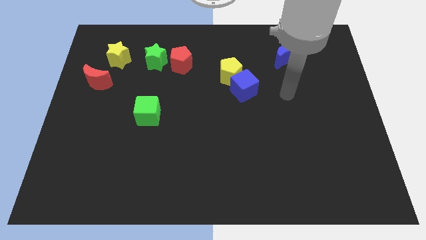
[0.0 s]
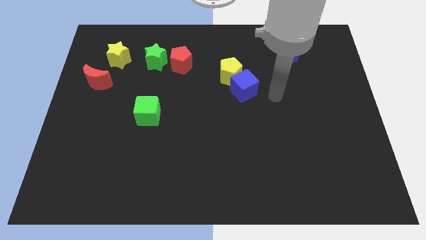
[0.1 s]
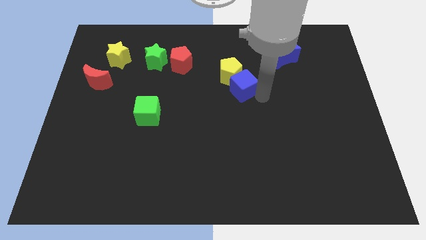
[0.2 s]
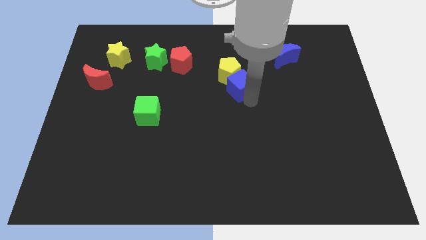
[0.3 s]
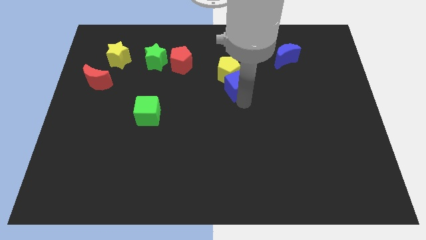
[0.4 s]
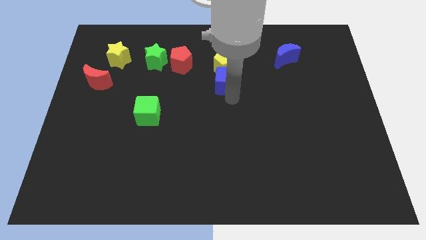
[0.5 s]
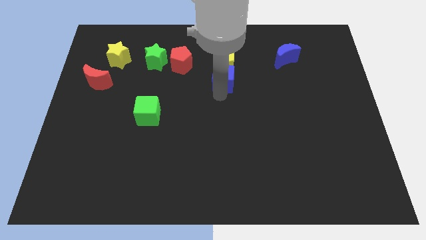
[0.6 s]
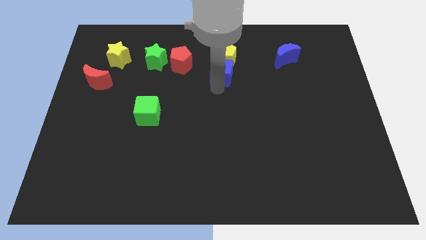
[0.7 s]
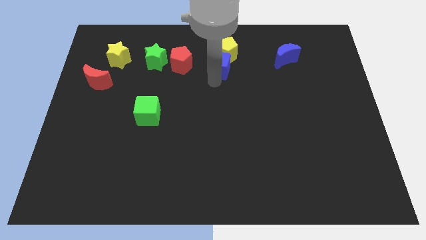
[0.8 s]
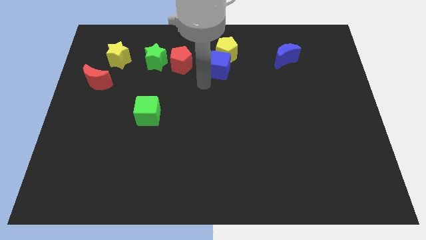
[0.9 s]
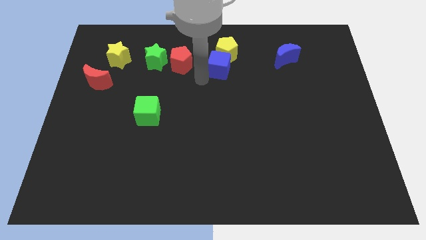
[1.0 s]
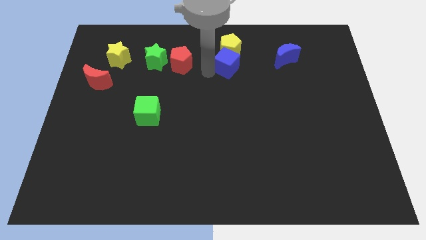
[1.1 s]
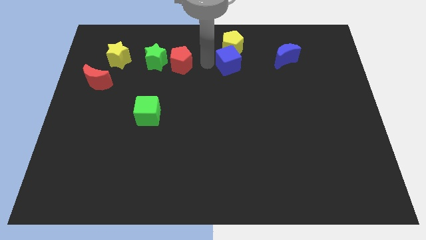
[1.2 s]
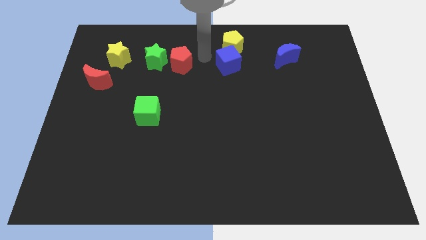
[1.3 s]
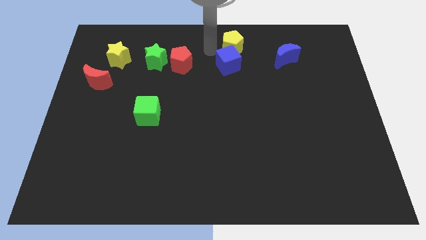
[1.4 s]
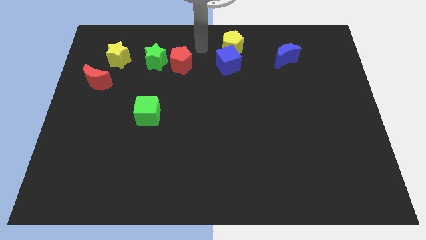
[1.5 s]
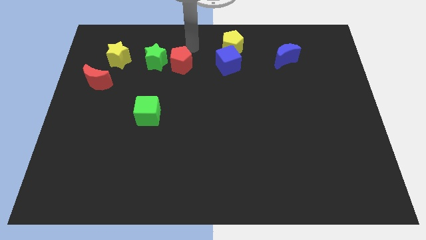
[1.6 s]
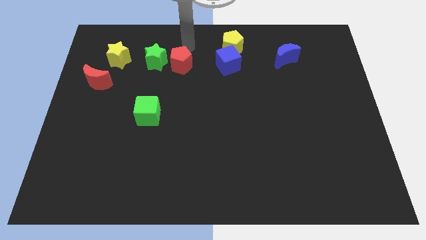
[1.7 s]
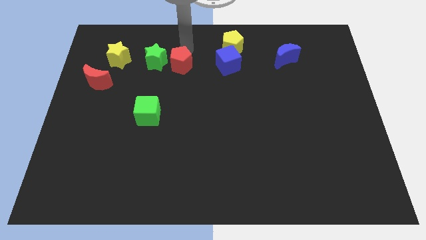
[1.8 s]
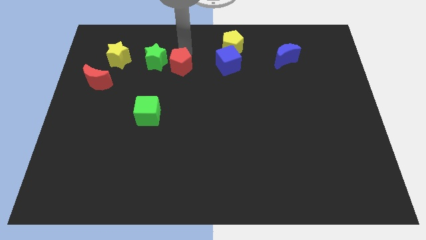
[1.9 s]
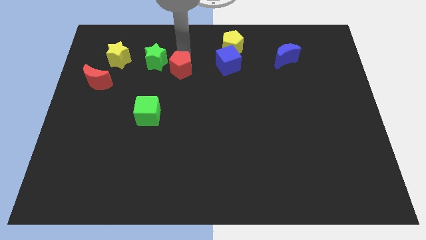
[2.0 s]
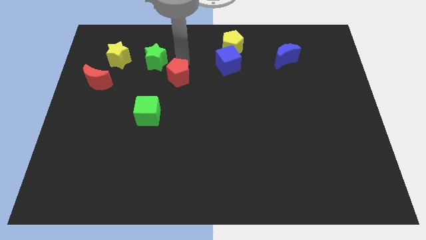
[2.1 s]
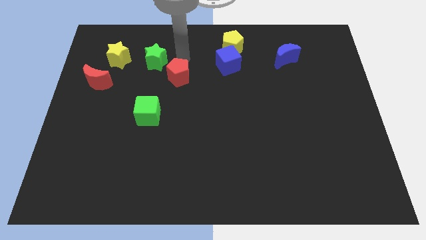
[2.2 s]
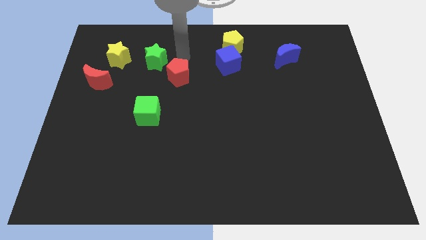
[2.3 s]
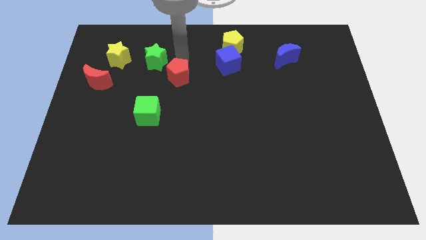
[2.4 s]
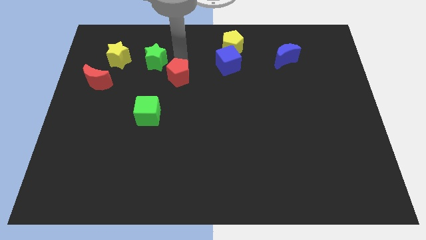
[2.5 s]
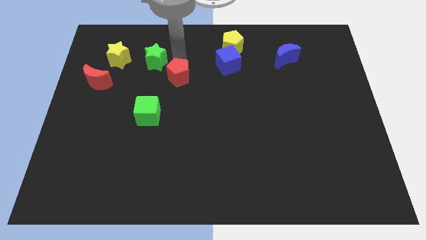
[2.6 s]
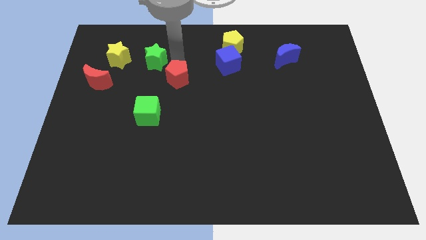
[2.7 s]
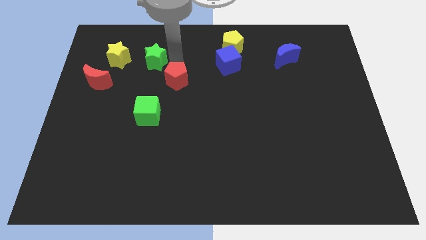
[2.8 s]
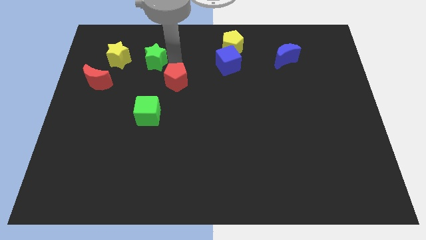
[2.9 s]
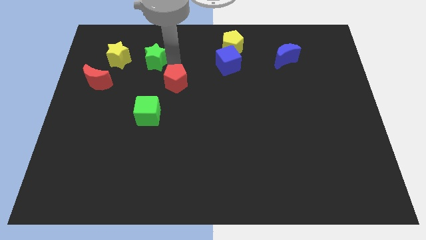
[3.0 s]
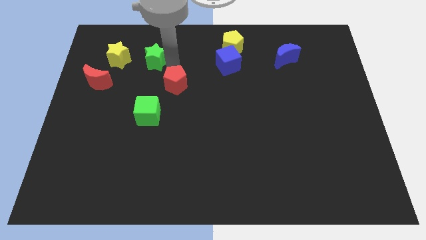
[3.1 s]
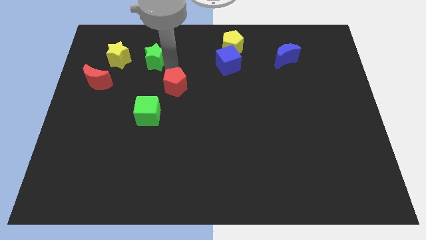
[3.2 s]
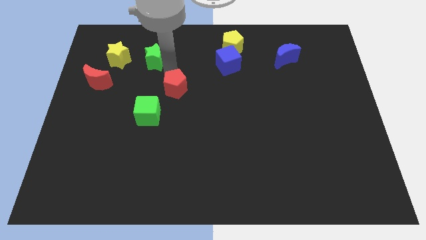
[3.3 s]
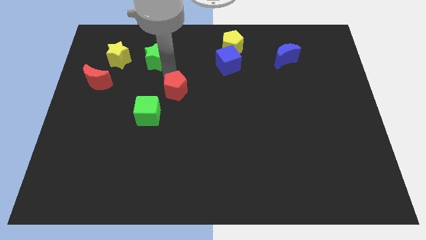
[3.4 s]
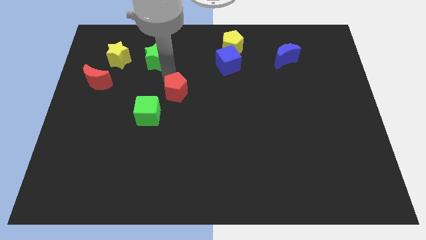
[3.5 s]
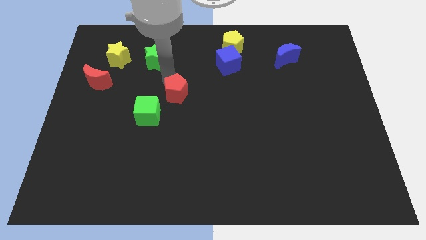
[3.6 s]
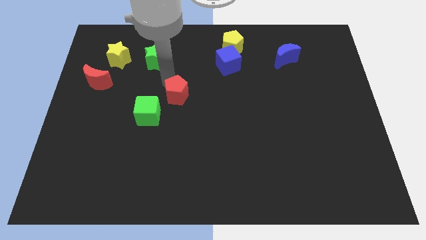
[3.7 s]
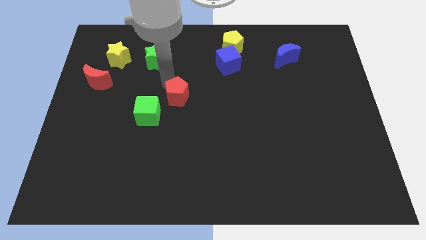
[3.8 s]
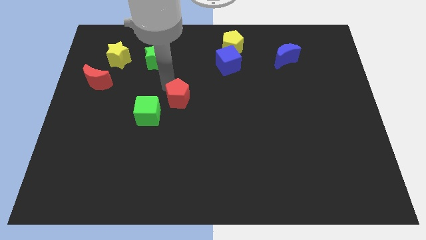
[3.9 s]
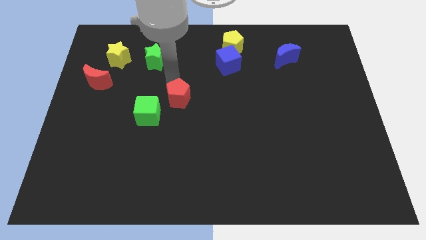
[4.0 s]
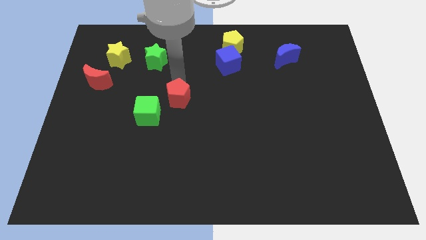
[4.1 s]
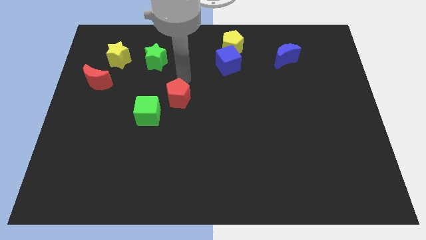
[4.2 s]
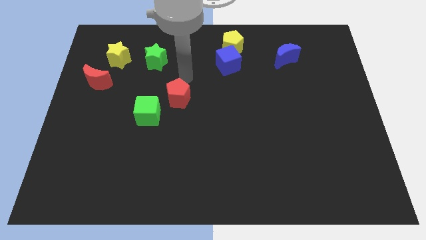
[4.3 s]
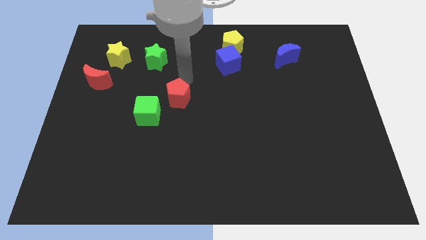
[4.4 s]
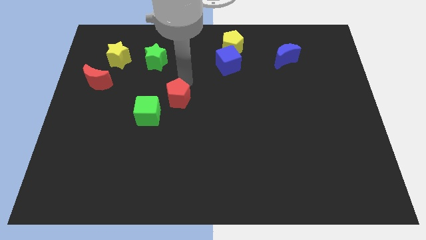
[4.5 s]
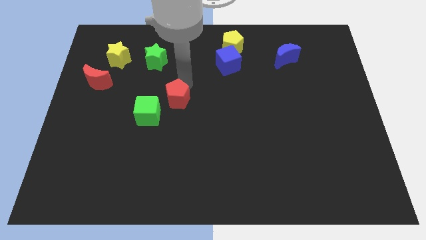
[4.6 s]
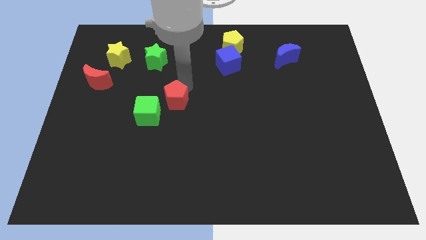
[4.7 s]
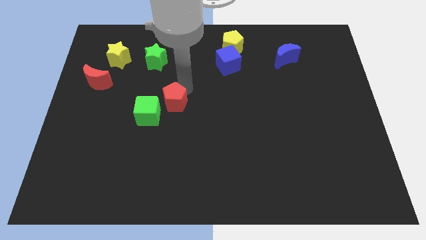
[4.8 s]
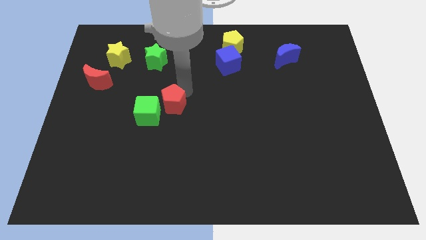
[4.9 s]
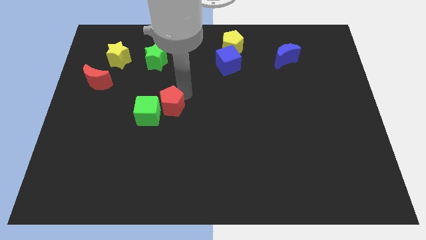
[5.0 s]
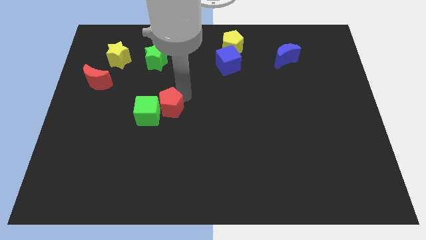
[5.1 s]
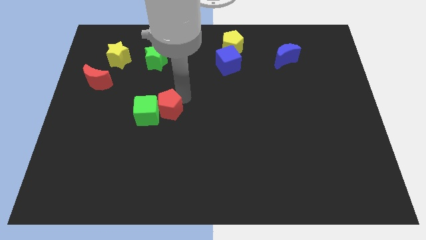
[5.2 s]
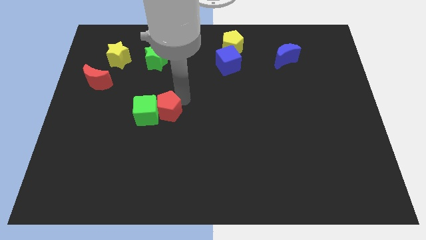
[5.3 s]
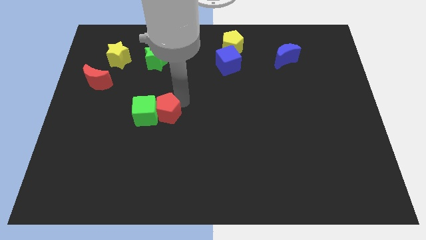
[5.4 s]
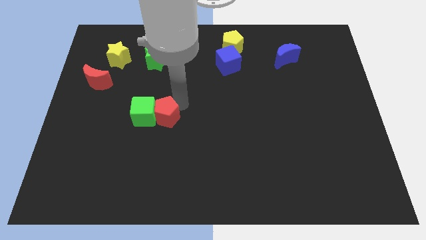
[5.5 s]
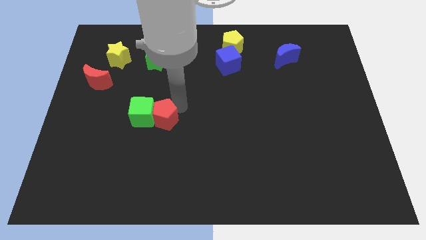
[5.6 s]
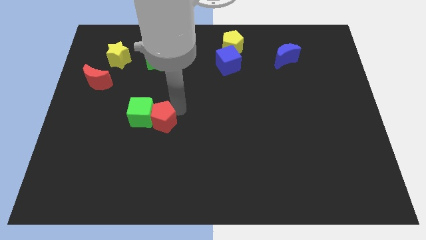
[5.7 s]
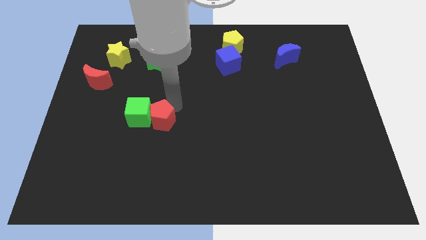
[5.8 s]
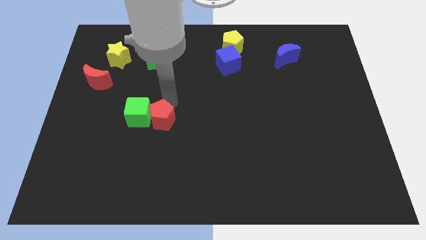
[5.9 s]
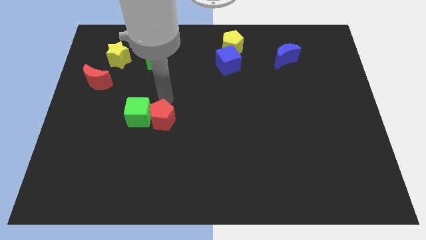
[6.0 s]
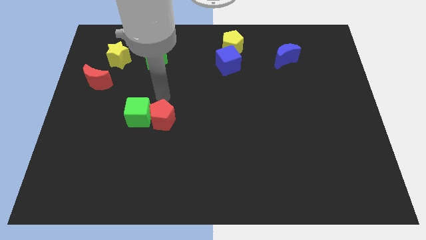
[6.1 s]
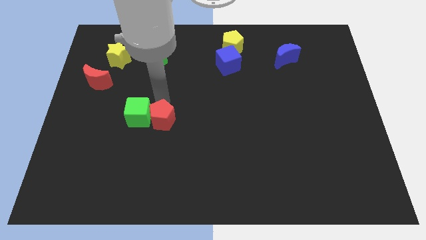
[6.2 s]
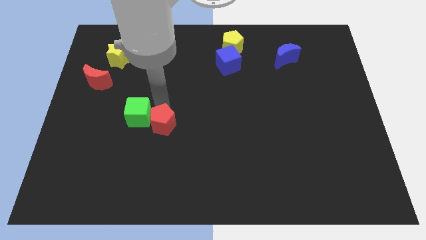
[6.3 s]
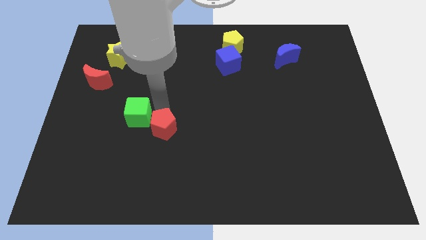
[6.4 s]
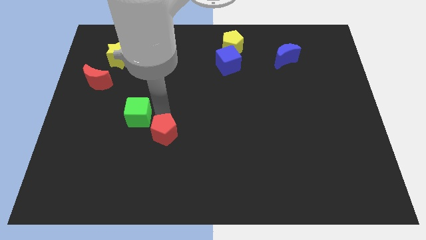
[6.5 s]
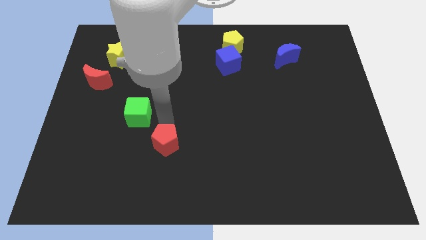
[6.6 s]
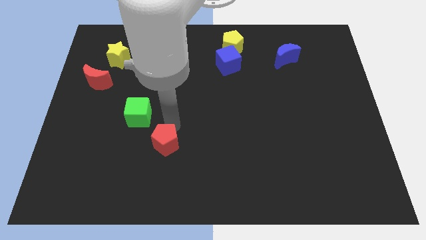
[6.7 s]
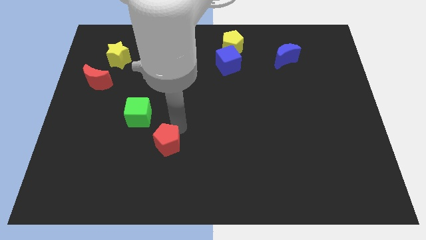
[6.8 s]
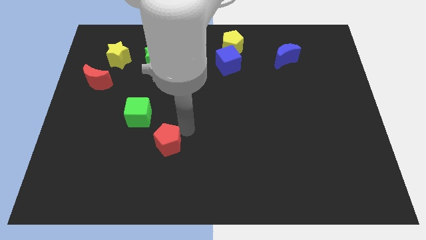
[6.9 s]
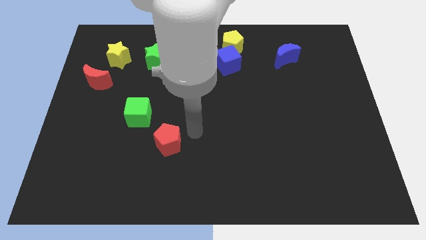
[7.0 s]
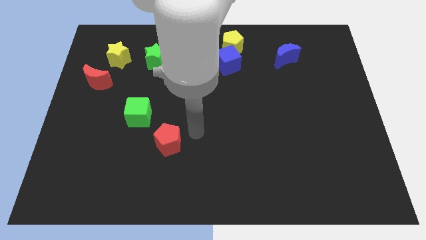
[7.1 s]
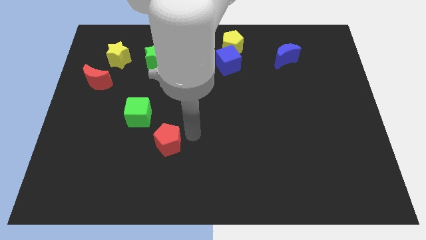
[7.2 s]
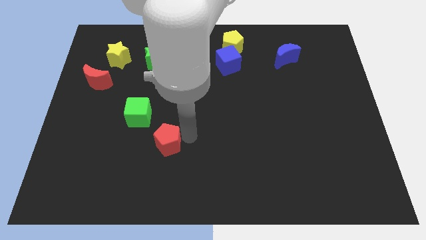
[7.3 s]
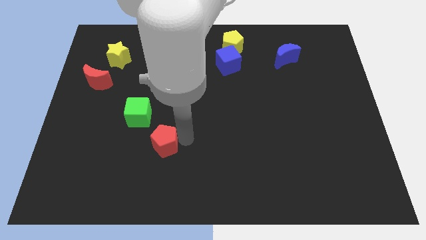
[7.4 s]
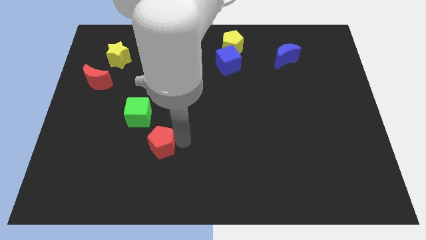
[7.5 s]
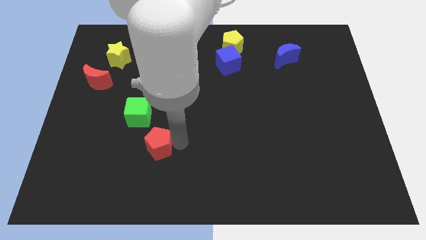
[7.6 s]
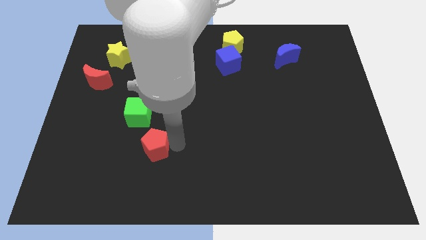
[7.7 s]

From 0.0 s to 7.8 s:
push the red pentagon to the bottom side of the green cube

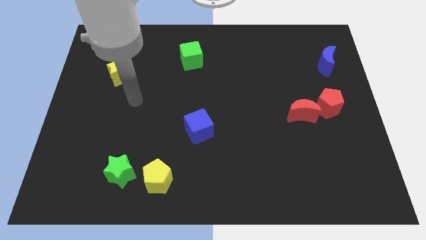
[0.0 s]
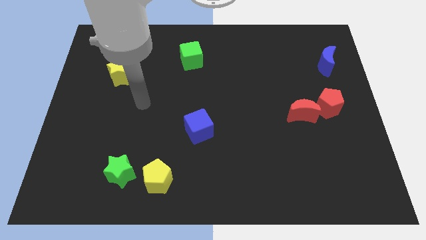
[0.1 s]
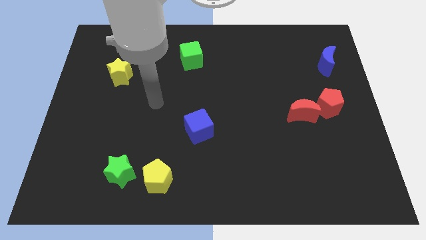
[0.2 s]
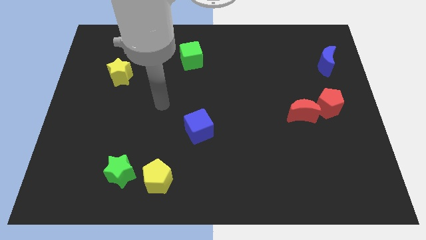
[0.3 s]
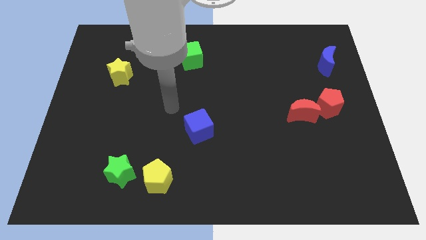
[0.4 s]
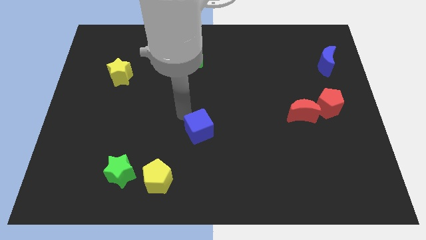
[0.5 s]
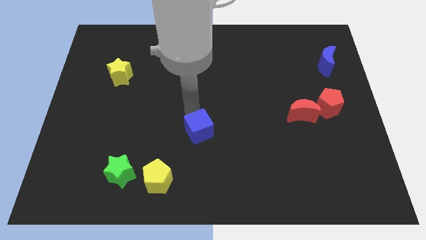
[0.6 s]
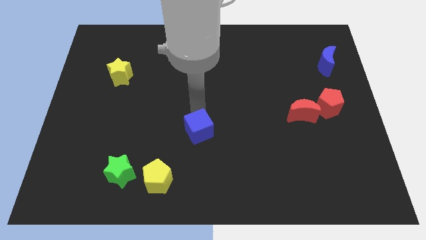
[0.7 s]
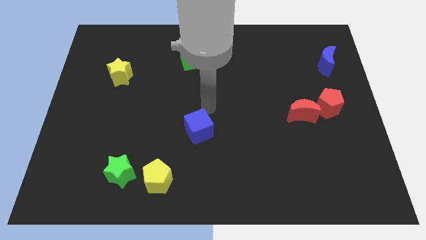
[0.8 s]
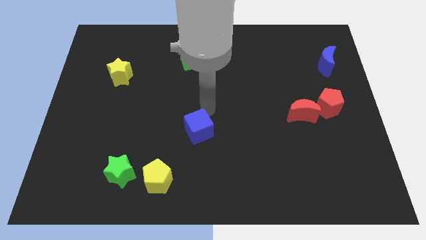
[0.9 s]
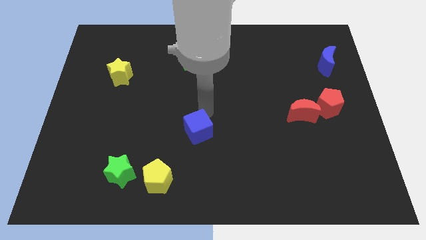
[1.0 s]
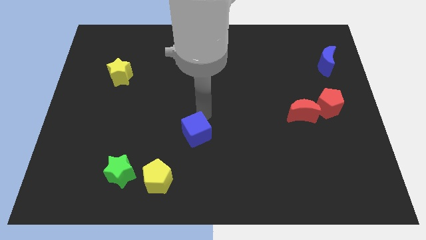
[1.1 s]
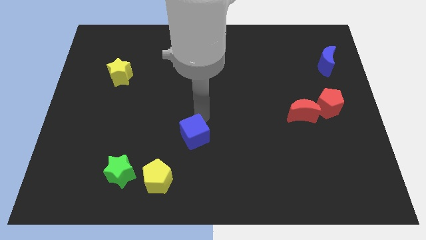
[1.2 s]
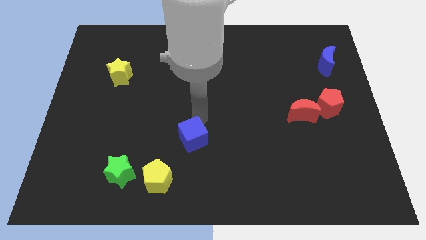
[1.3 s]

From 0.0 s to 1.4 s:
move the blue cube to the top right side of the yellow pentagon
